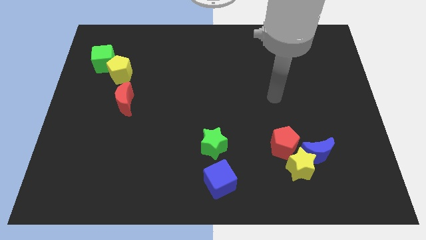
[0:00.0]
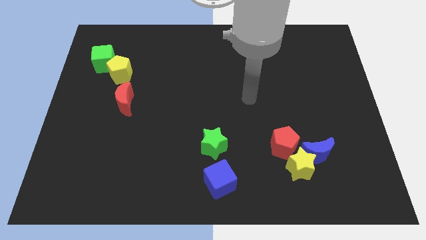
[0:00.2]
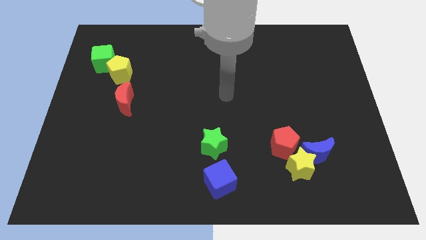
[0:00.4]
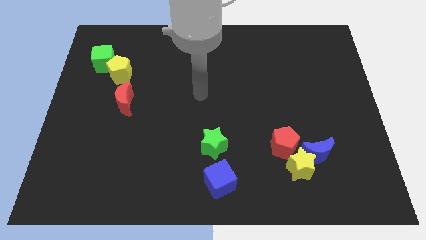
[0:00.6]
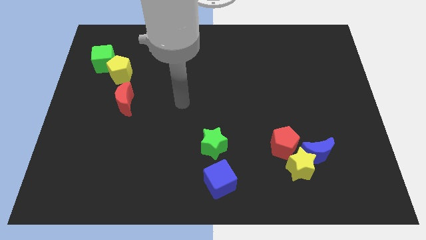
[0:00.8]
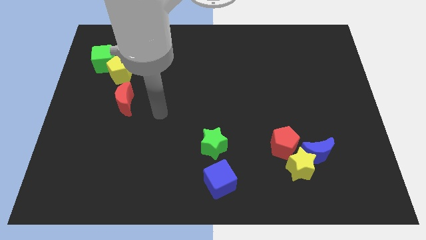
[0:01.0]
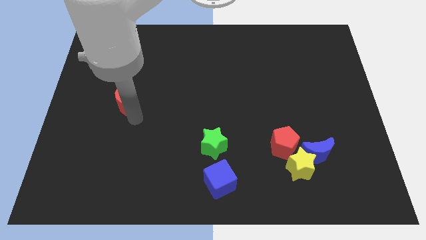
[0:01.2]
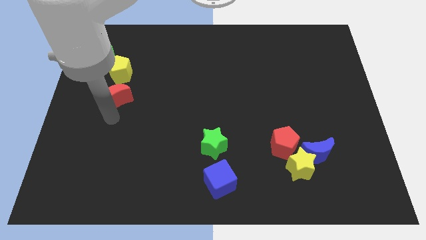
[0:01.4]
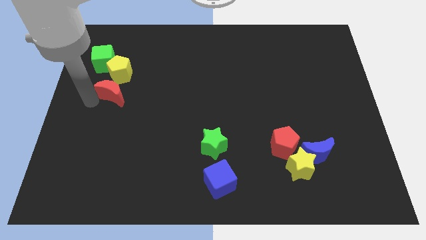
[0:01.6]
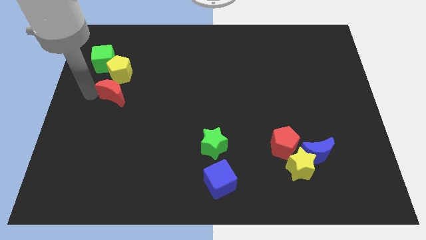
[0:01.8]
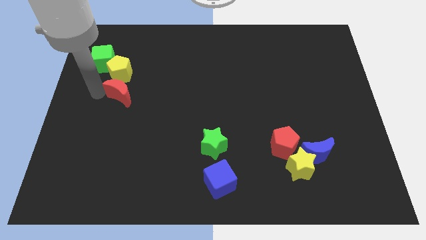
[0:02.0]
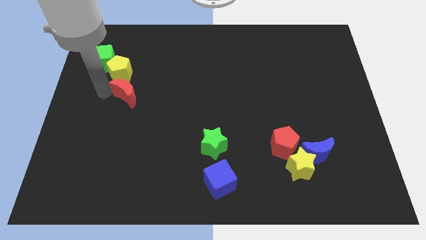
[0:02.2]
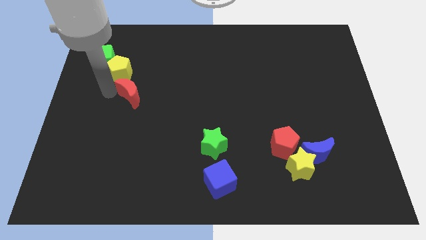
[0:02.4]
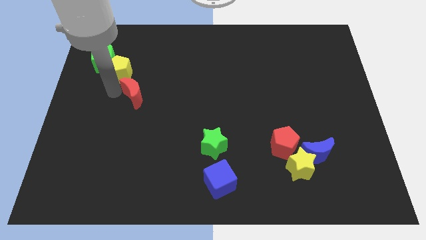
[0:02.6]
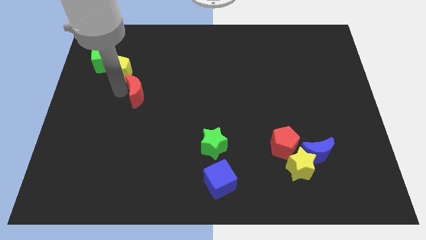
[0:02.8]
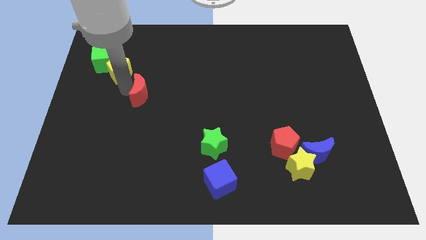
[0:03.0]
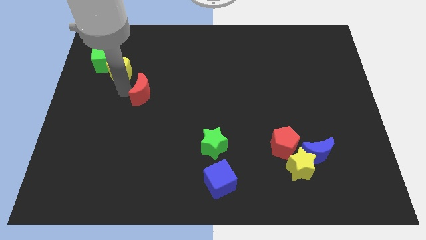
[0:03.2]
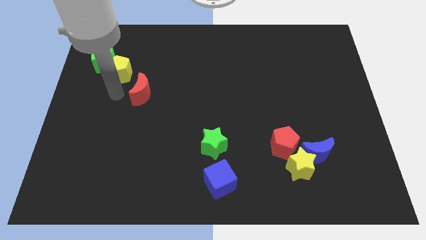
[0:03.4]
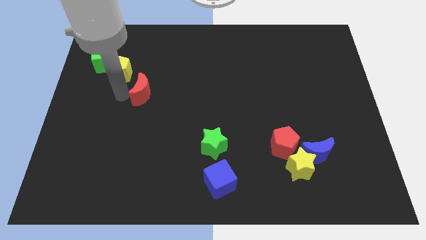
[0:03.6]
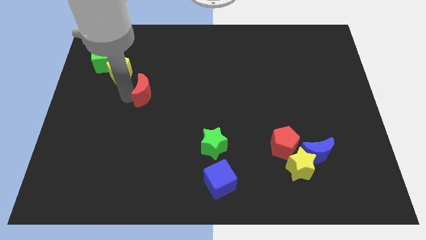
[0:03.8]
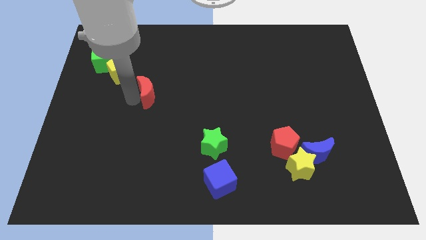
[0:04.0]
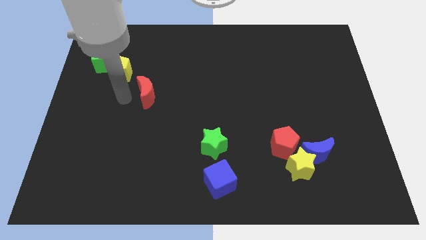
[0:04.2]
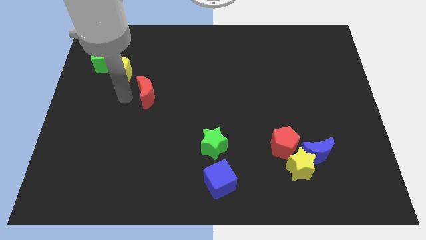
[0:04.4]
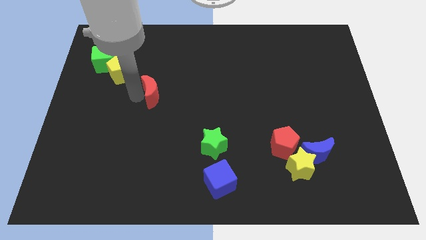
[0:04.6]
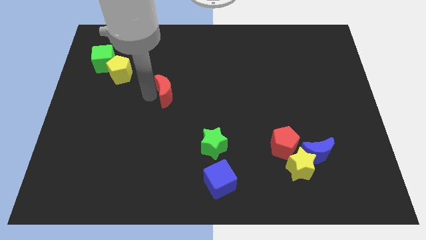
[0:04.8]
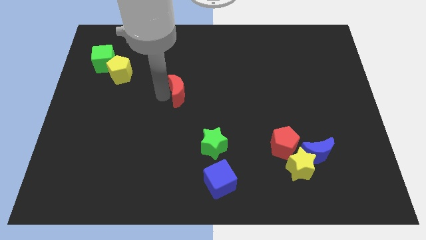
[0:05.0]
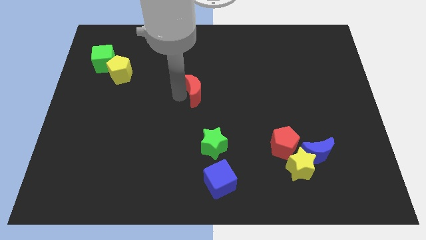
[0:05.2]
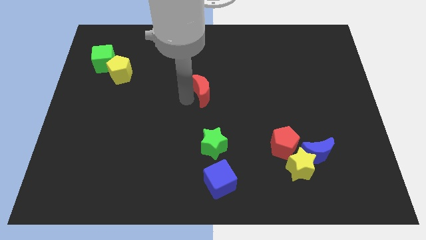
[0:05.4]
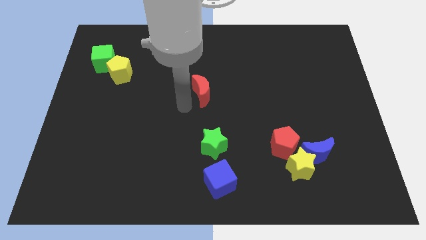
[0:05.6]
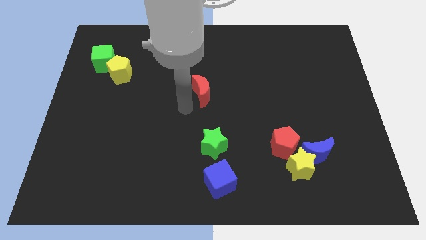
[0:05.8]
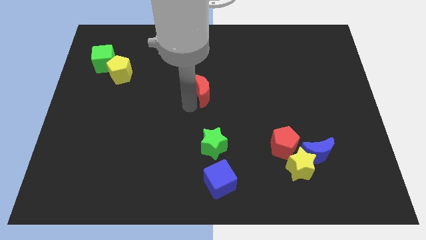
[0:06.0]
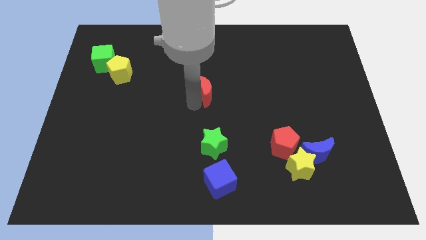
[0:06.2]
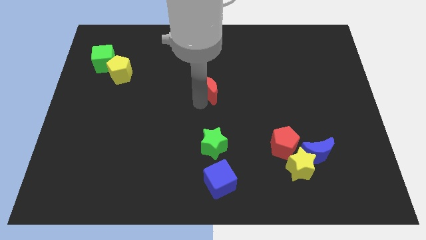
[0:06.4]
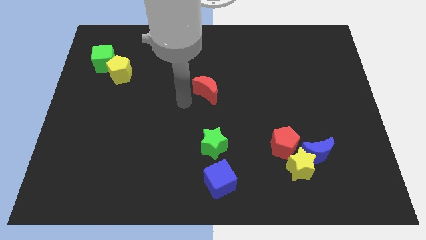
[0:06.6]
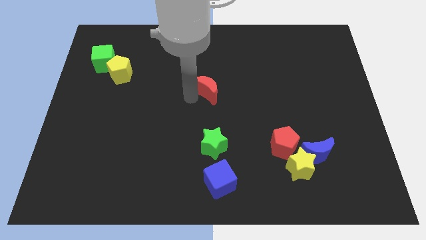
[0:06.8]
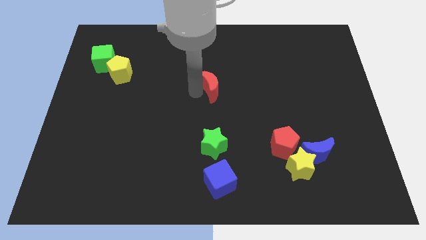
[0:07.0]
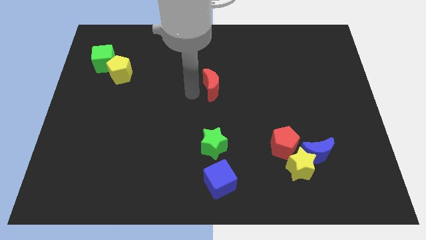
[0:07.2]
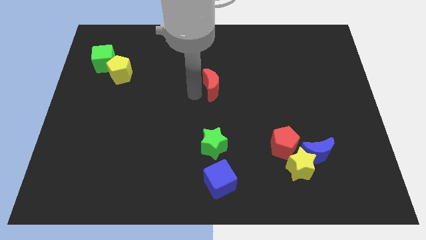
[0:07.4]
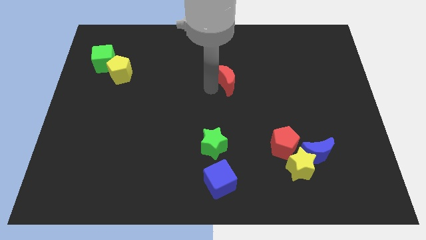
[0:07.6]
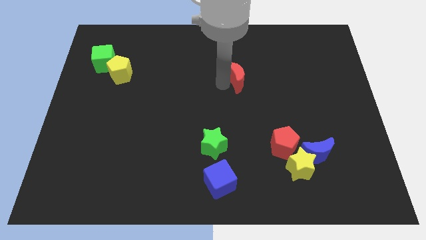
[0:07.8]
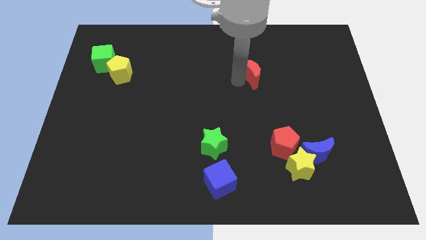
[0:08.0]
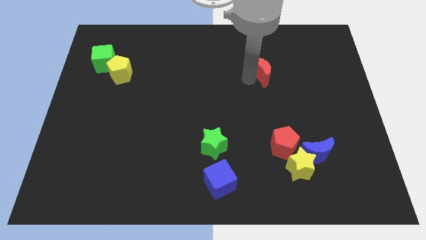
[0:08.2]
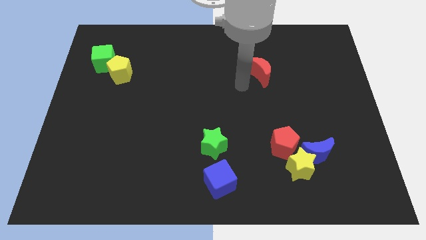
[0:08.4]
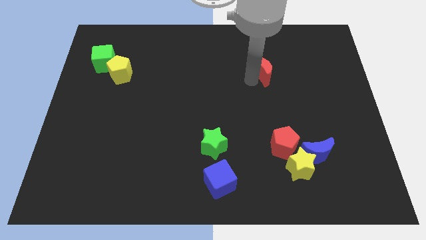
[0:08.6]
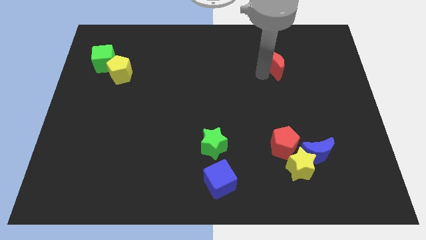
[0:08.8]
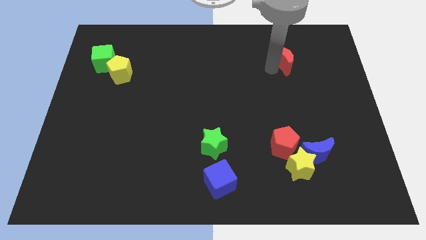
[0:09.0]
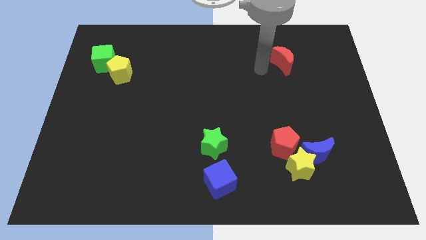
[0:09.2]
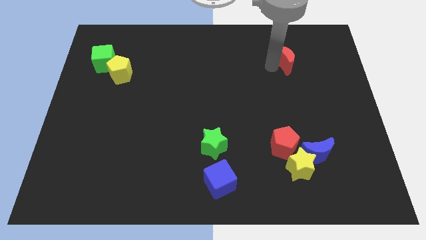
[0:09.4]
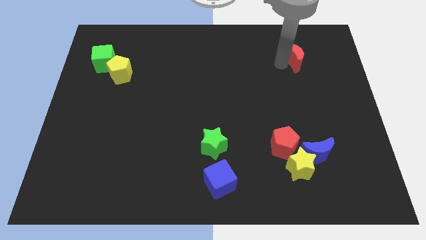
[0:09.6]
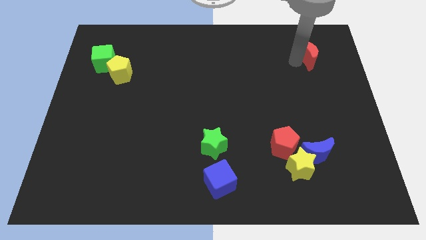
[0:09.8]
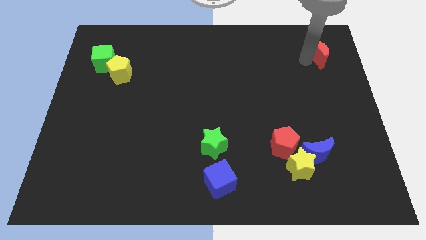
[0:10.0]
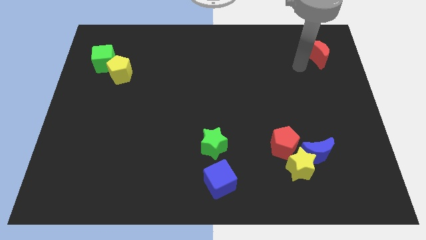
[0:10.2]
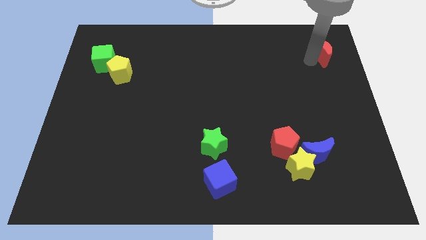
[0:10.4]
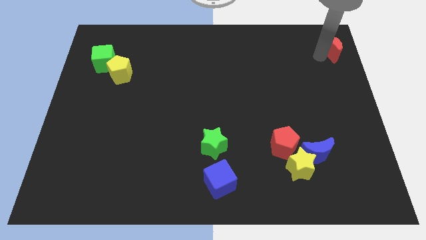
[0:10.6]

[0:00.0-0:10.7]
move the red moon to the top right corner

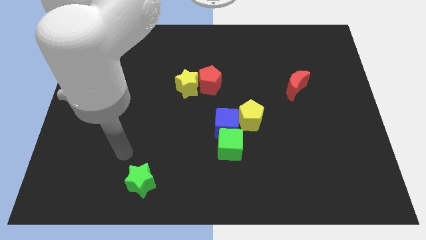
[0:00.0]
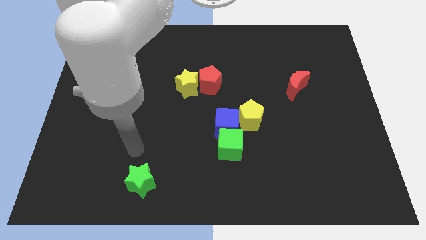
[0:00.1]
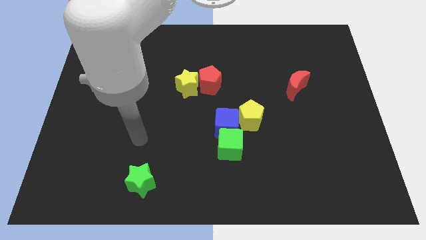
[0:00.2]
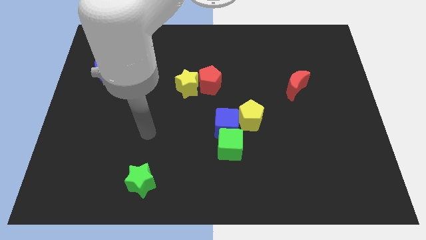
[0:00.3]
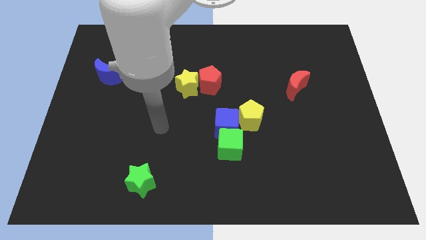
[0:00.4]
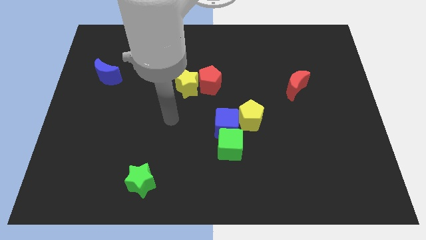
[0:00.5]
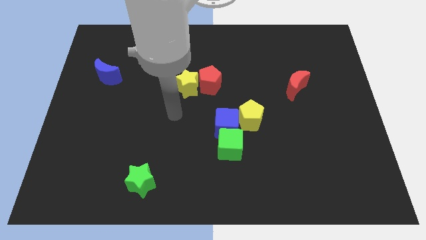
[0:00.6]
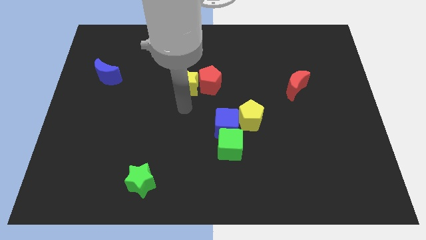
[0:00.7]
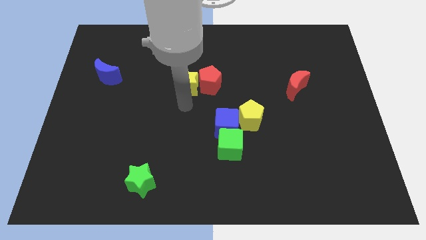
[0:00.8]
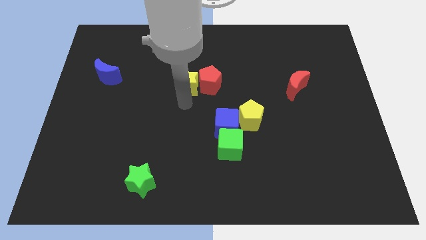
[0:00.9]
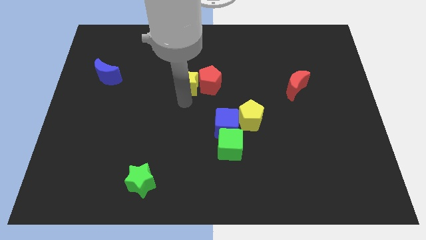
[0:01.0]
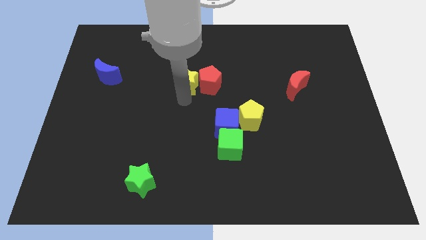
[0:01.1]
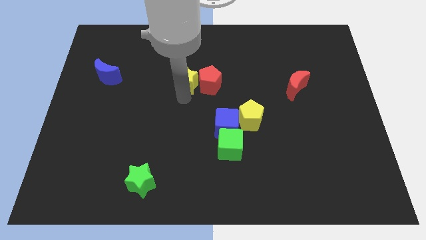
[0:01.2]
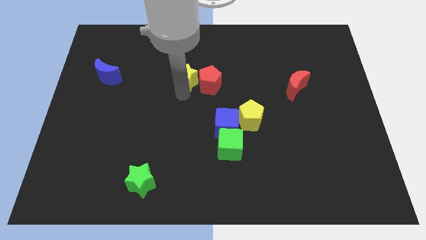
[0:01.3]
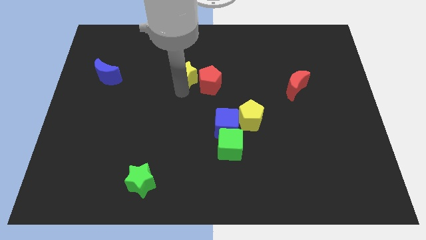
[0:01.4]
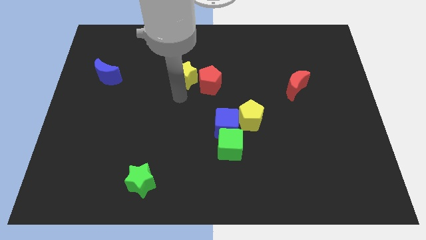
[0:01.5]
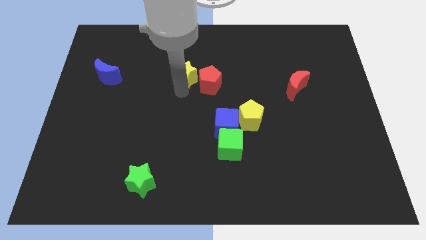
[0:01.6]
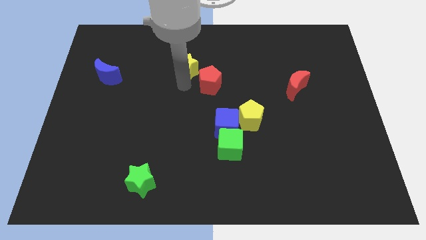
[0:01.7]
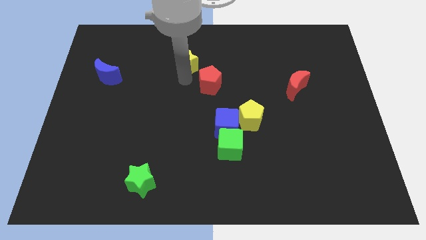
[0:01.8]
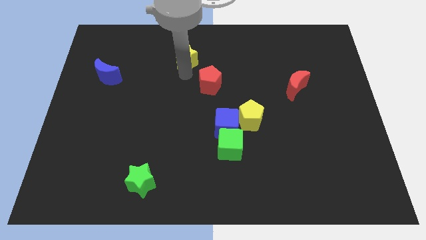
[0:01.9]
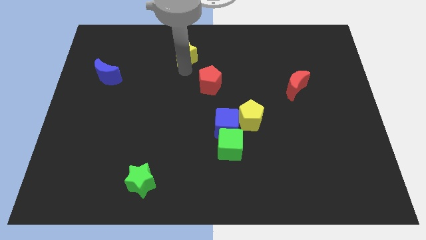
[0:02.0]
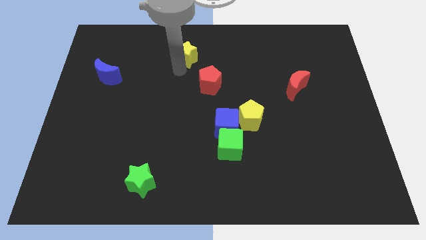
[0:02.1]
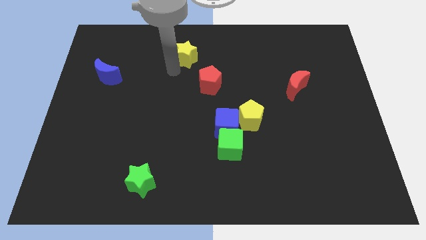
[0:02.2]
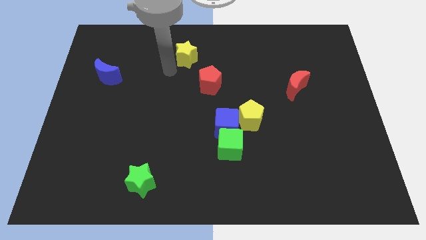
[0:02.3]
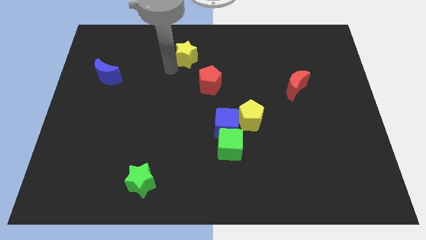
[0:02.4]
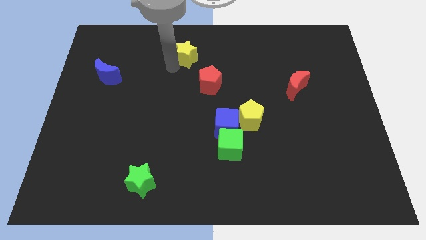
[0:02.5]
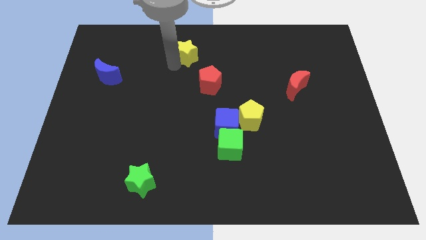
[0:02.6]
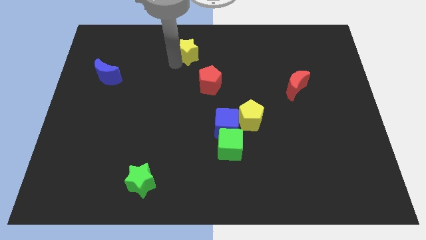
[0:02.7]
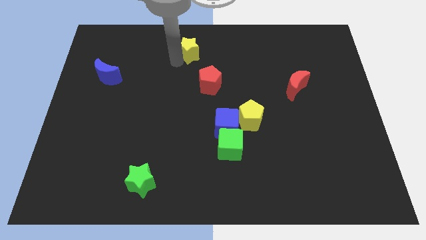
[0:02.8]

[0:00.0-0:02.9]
put the yellow star to the towards your base
